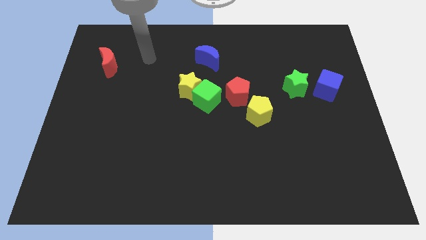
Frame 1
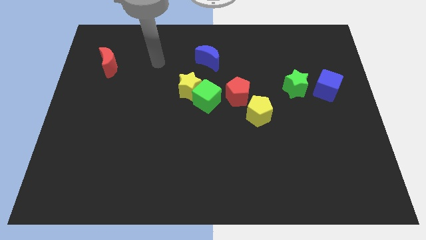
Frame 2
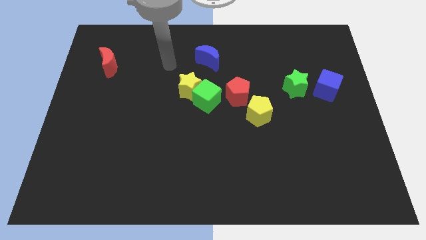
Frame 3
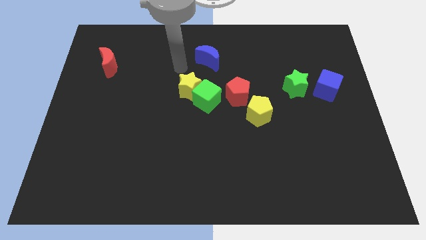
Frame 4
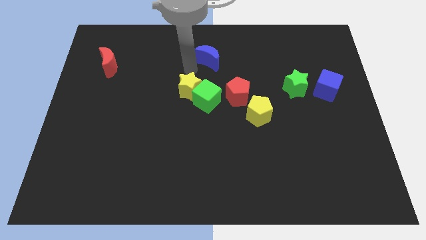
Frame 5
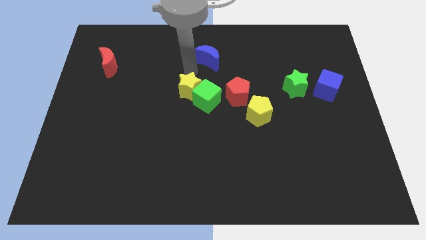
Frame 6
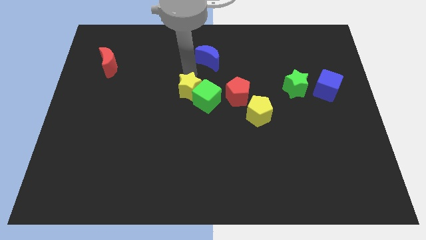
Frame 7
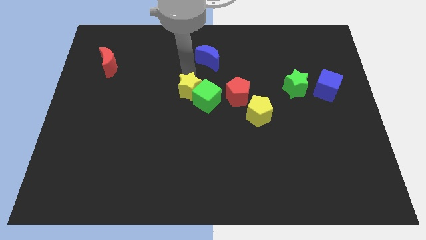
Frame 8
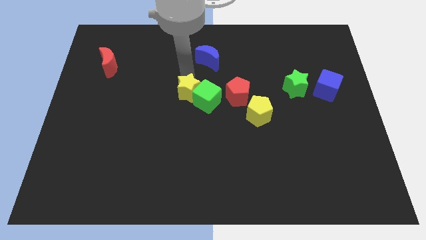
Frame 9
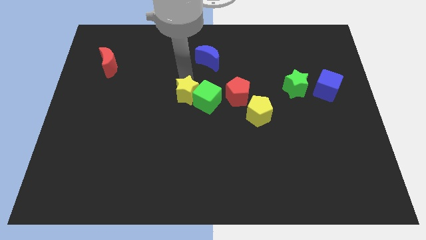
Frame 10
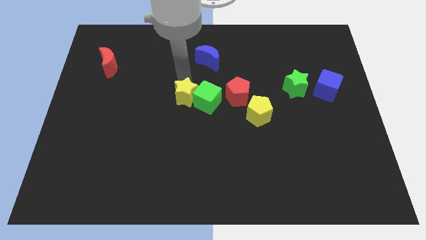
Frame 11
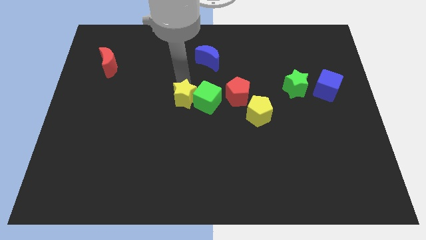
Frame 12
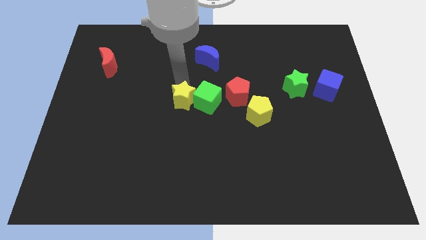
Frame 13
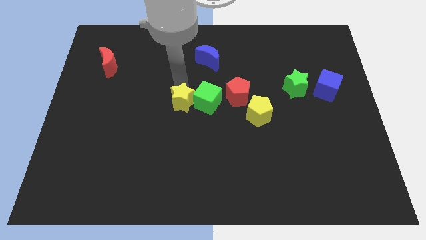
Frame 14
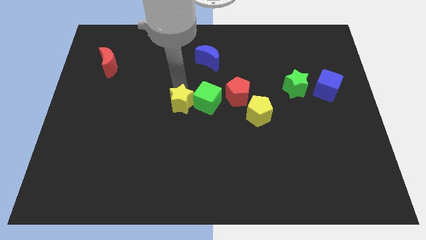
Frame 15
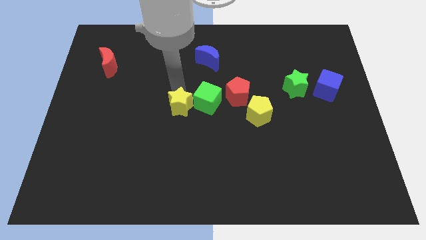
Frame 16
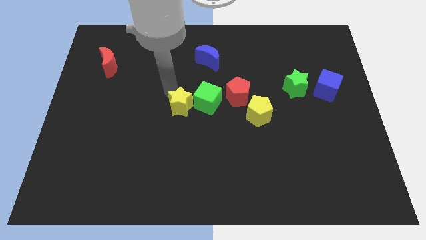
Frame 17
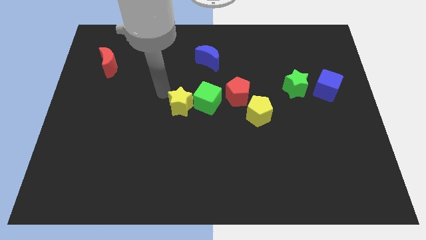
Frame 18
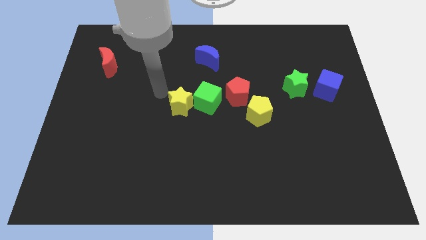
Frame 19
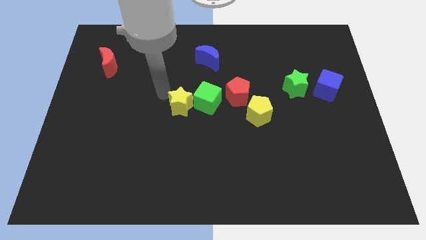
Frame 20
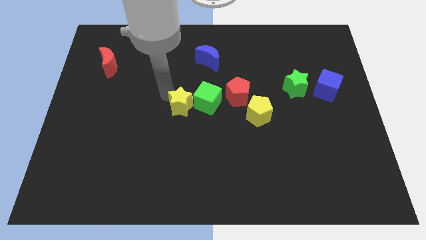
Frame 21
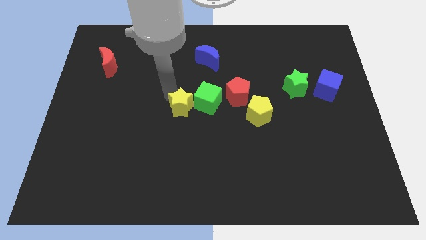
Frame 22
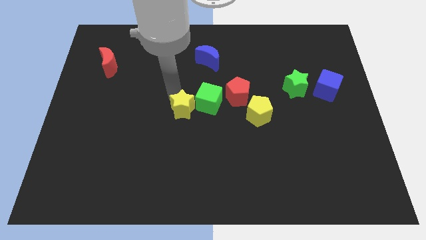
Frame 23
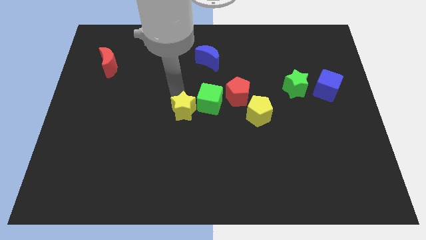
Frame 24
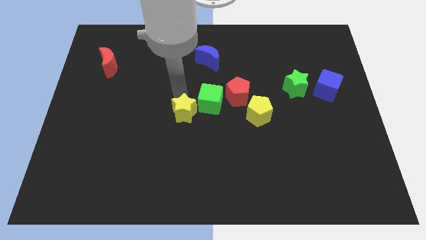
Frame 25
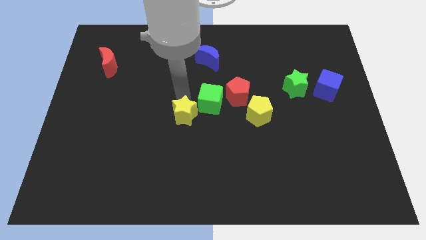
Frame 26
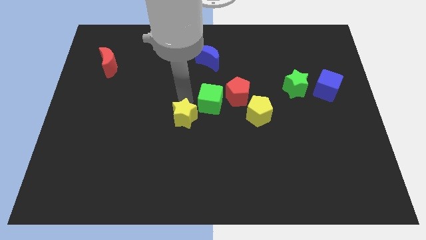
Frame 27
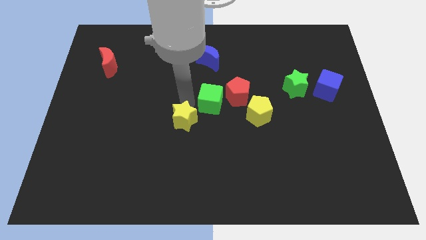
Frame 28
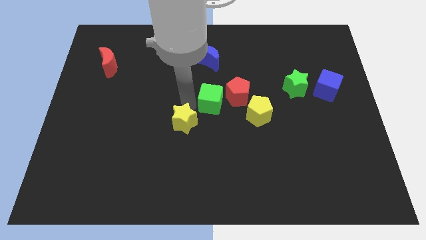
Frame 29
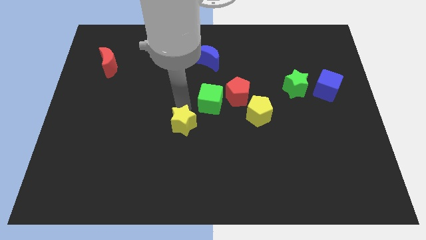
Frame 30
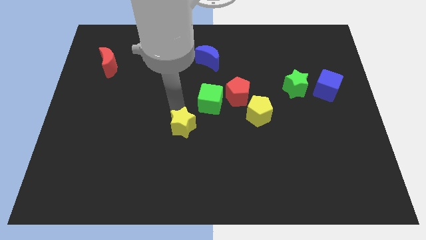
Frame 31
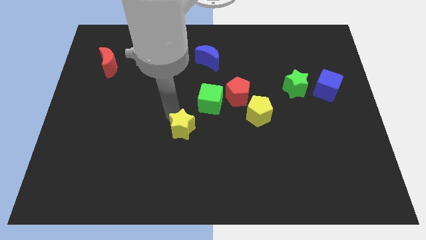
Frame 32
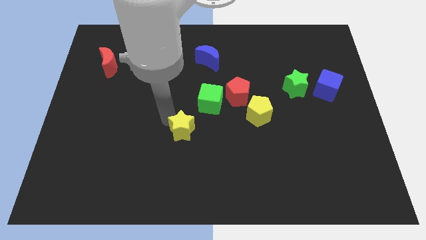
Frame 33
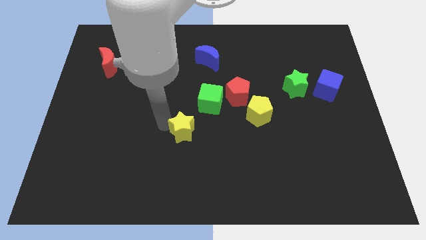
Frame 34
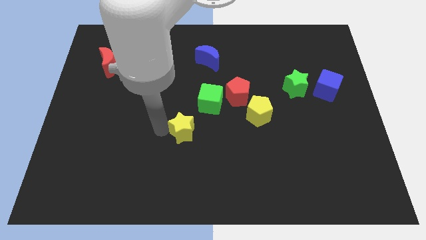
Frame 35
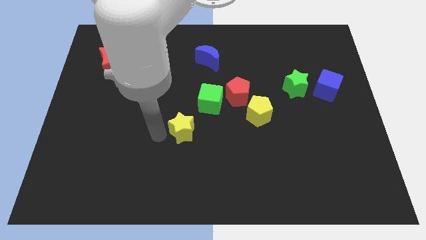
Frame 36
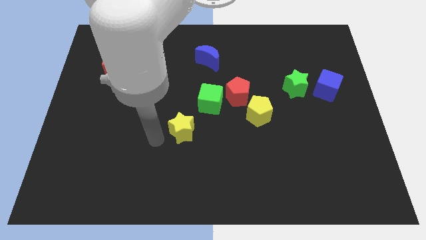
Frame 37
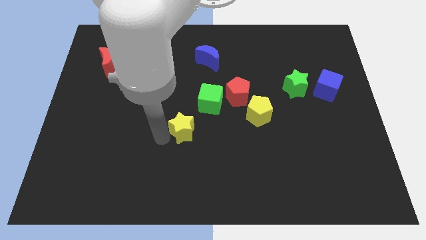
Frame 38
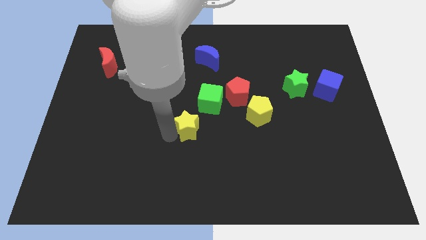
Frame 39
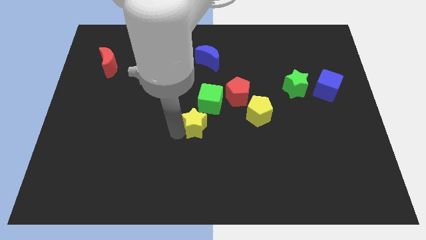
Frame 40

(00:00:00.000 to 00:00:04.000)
slightly push the yellow star down and right diagonally

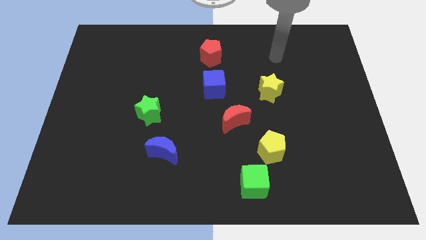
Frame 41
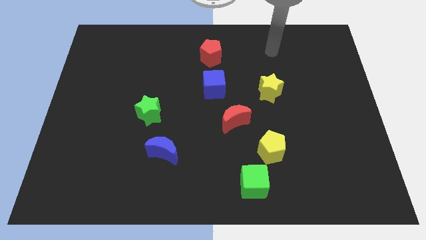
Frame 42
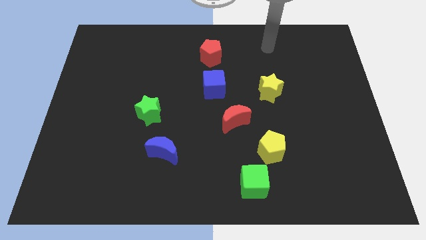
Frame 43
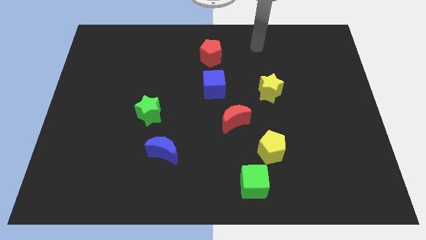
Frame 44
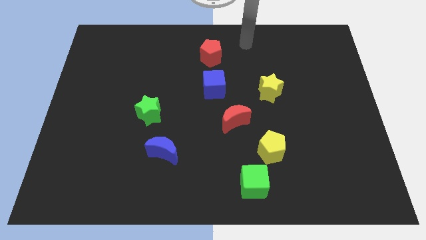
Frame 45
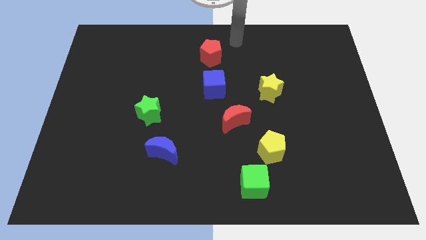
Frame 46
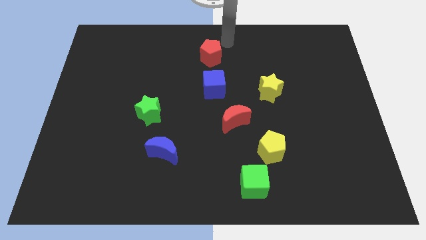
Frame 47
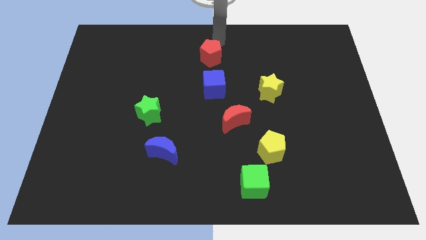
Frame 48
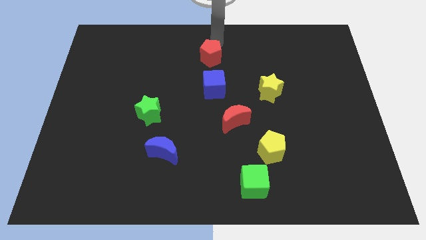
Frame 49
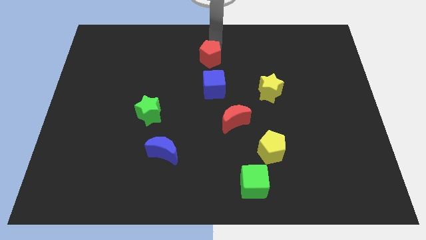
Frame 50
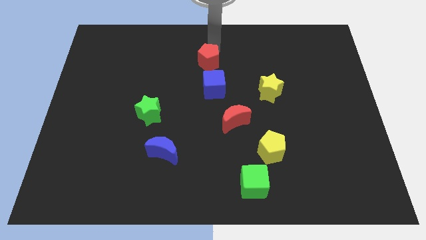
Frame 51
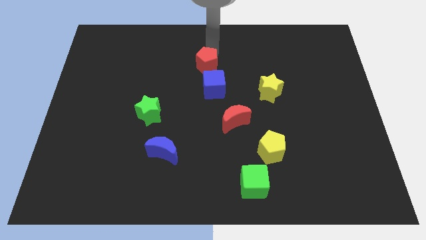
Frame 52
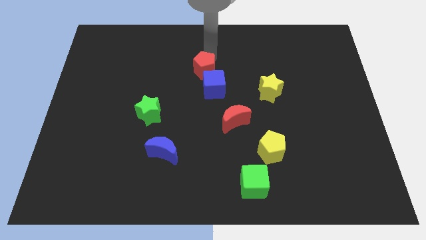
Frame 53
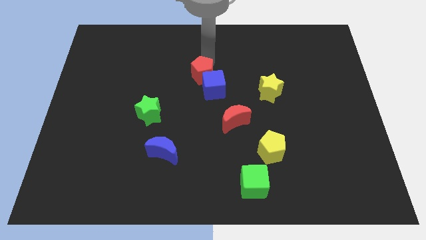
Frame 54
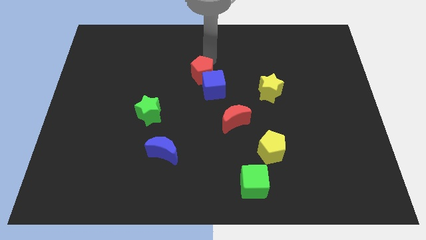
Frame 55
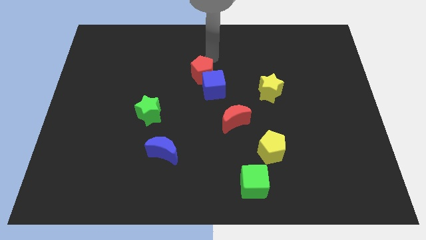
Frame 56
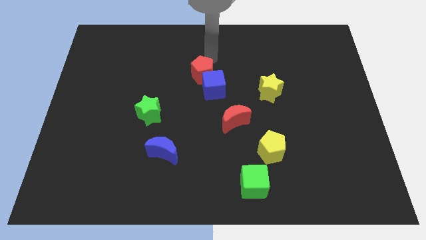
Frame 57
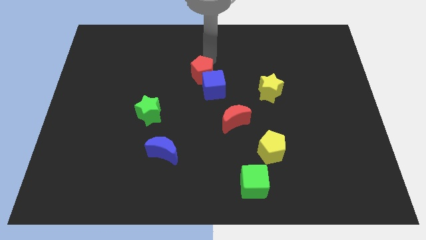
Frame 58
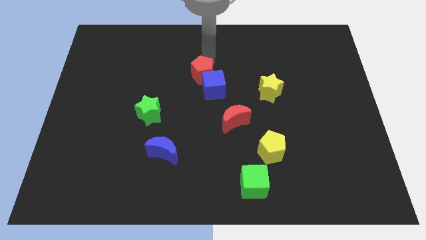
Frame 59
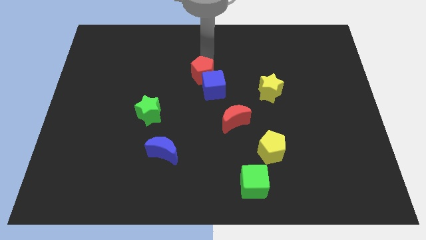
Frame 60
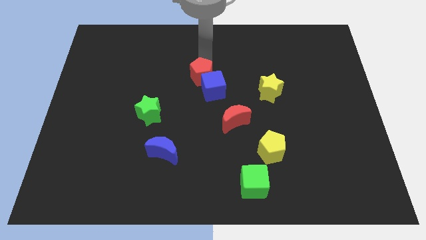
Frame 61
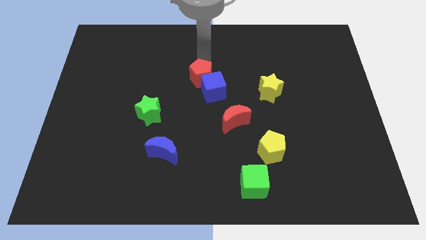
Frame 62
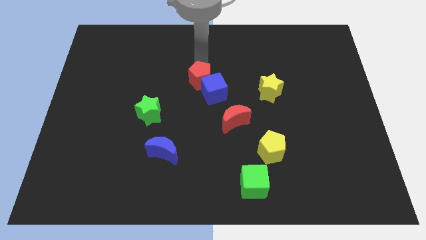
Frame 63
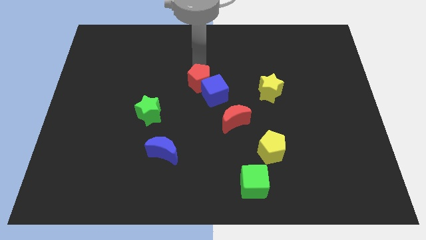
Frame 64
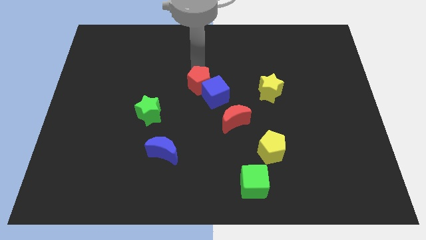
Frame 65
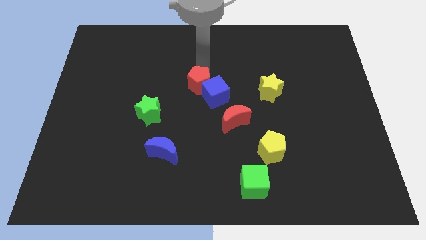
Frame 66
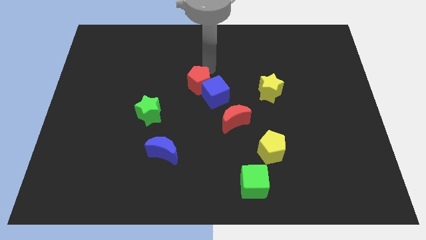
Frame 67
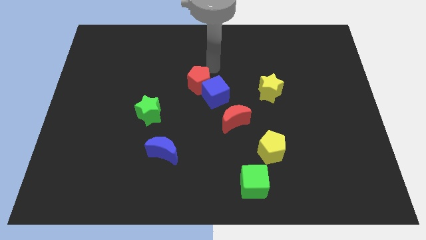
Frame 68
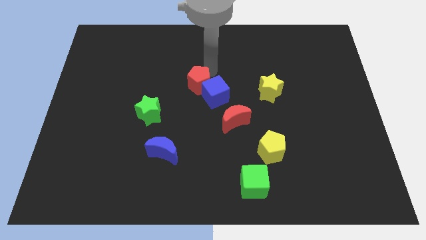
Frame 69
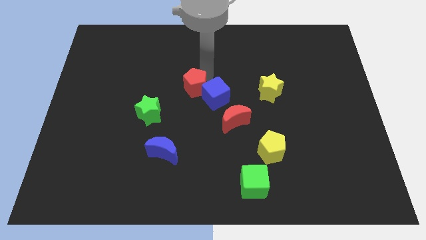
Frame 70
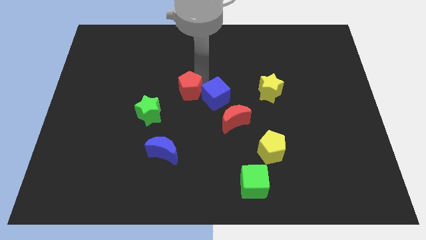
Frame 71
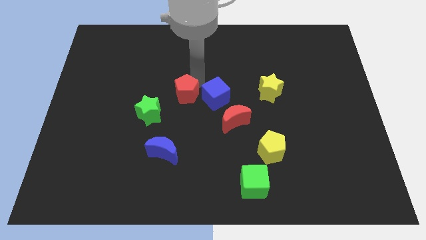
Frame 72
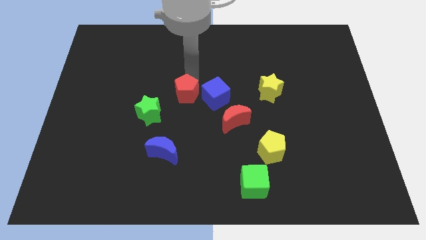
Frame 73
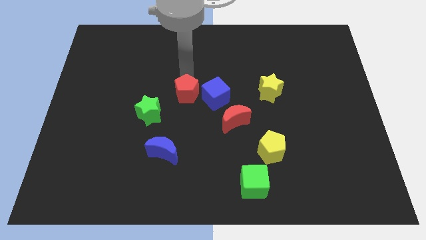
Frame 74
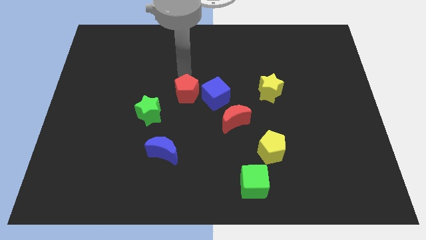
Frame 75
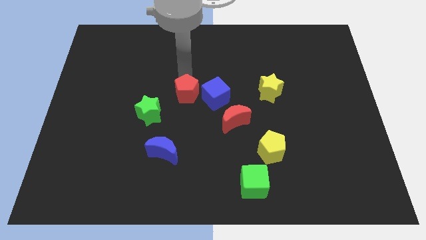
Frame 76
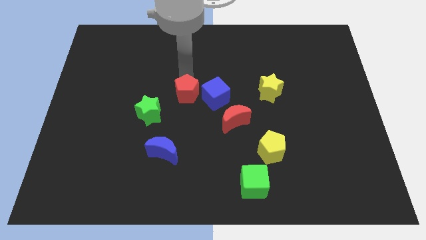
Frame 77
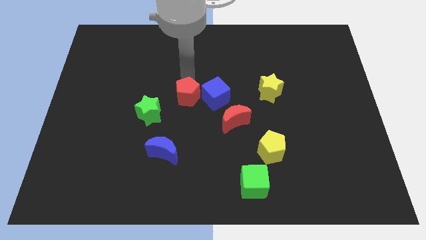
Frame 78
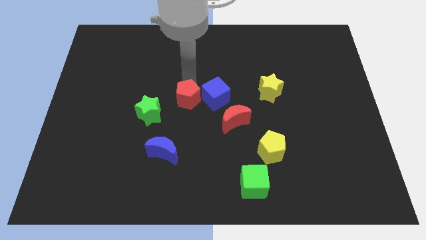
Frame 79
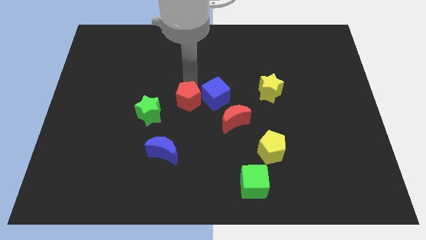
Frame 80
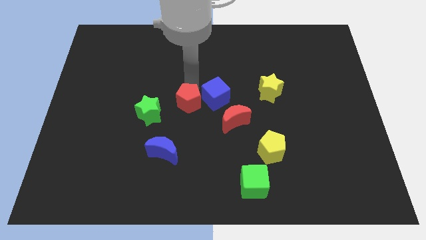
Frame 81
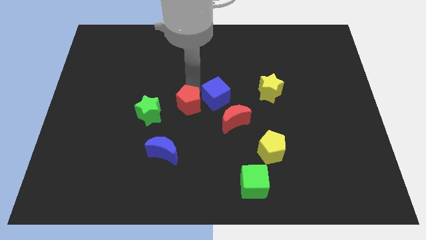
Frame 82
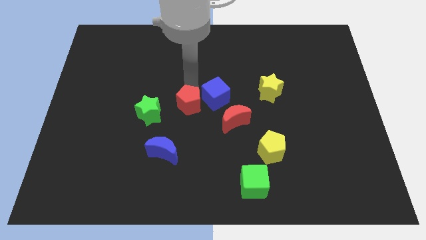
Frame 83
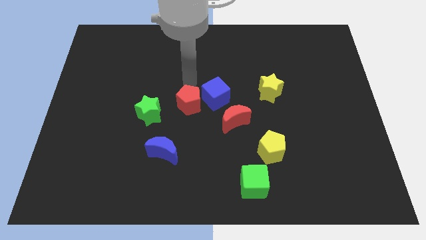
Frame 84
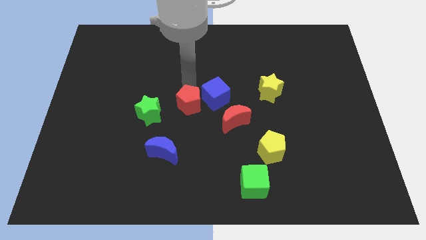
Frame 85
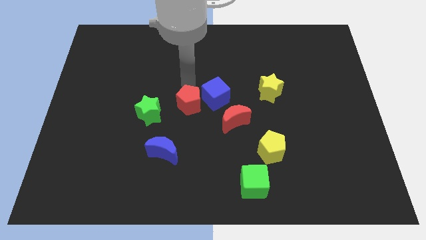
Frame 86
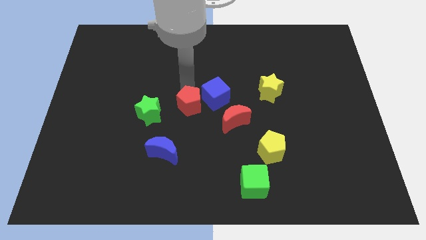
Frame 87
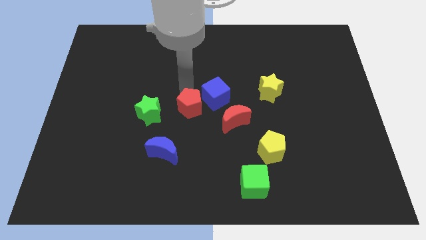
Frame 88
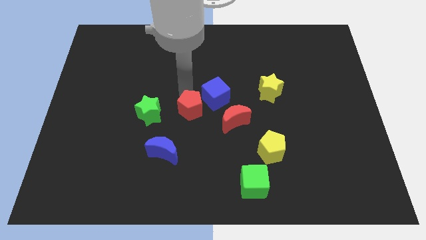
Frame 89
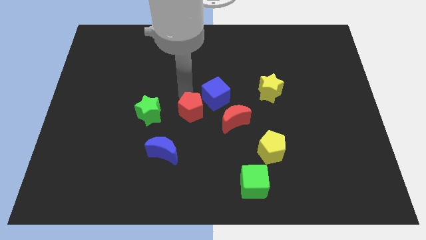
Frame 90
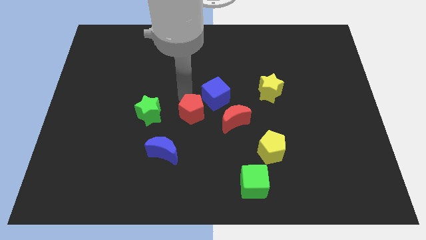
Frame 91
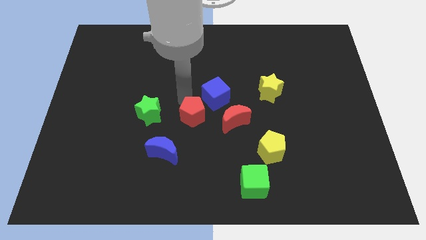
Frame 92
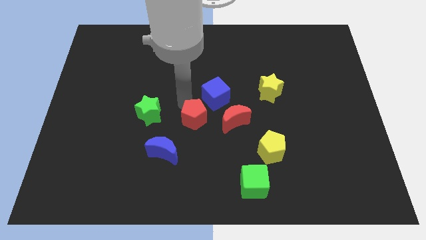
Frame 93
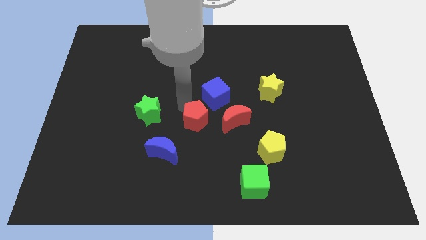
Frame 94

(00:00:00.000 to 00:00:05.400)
move the red pentagon down
